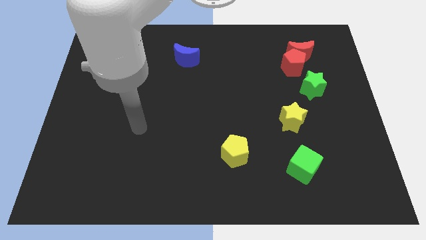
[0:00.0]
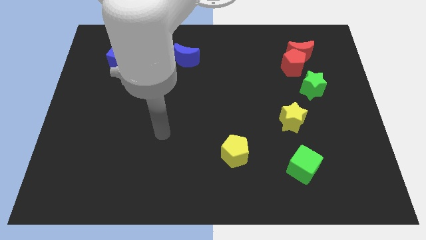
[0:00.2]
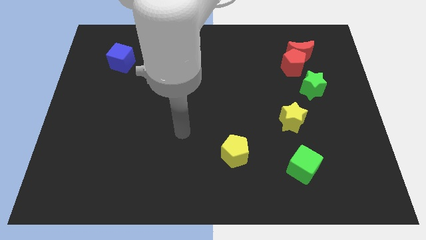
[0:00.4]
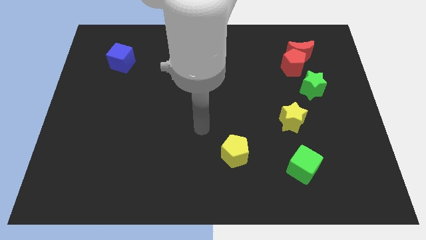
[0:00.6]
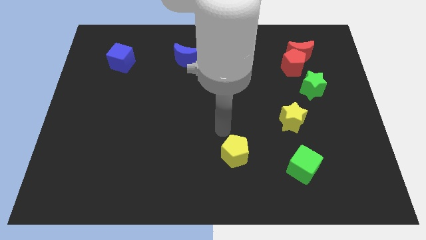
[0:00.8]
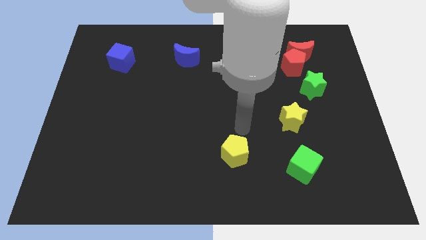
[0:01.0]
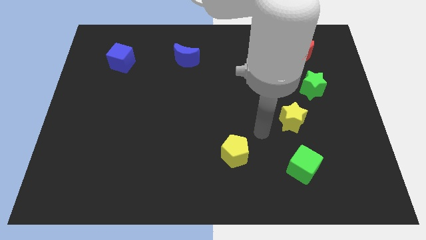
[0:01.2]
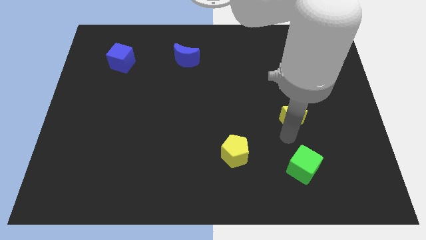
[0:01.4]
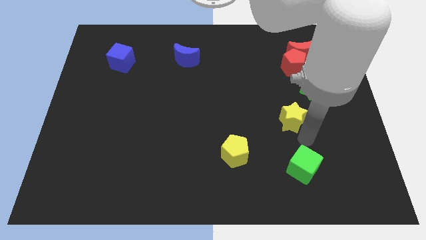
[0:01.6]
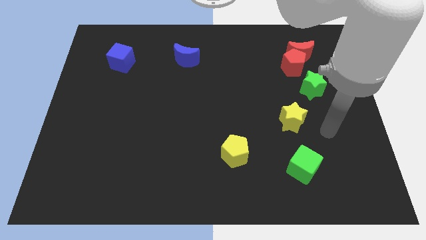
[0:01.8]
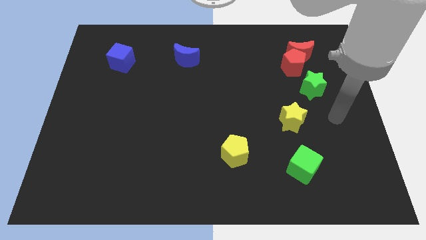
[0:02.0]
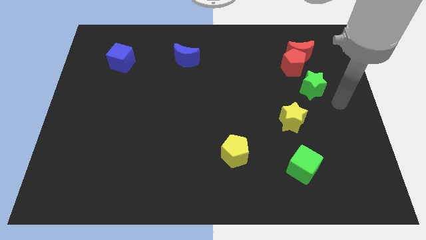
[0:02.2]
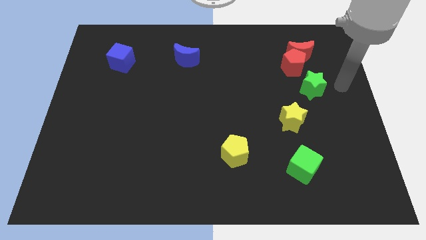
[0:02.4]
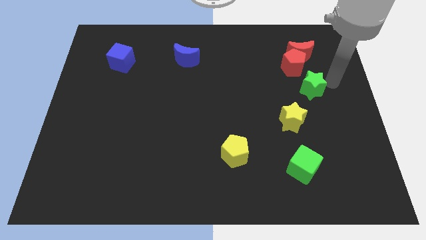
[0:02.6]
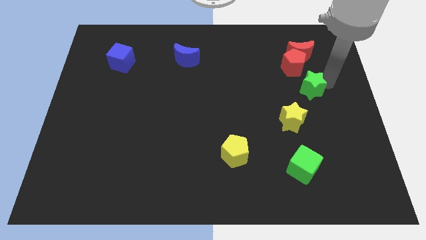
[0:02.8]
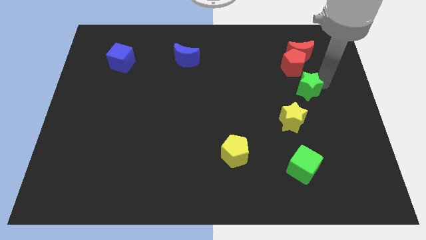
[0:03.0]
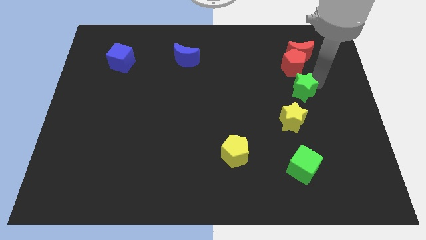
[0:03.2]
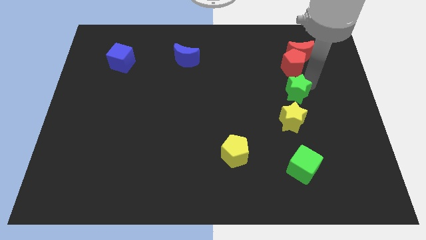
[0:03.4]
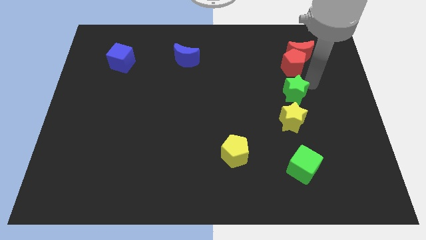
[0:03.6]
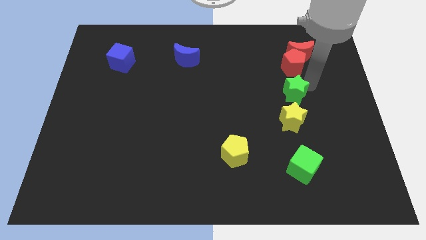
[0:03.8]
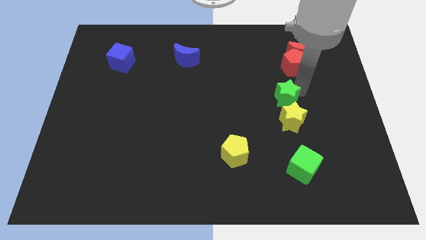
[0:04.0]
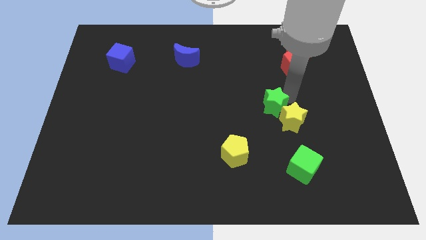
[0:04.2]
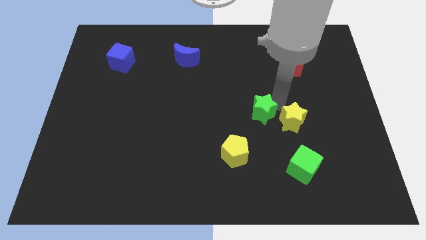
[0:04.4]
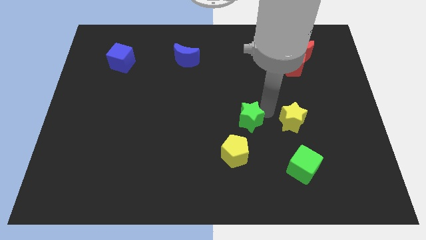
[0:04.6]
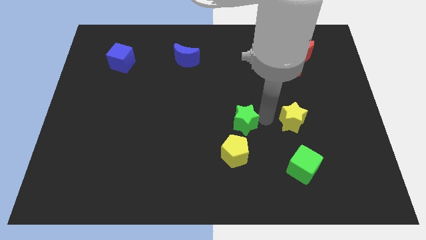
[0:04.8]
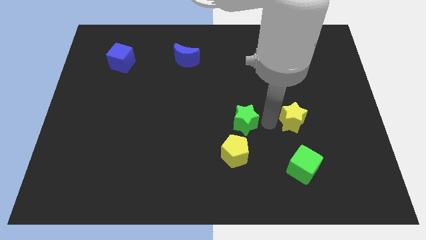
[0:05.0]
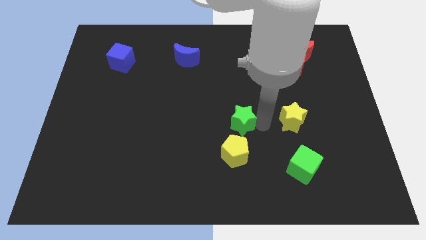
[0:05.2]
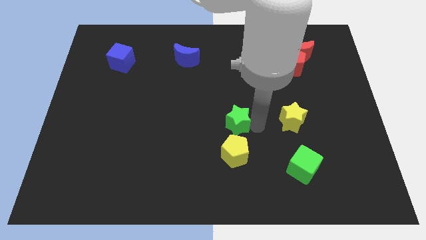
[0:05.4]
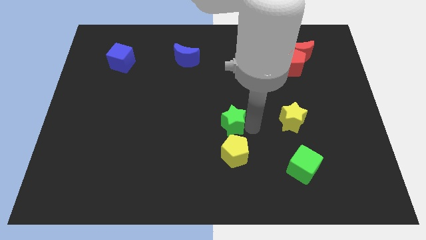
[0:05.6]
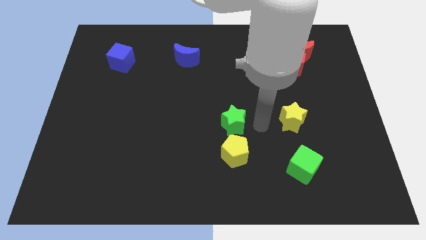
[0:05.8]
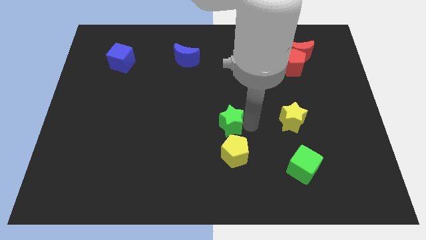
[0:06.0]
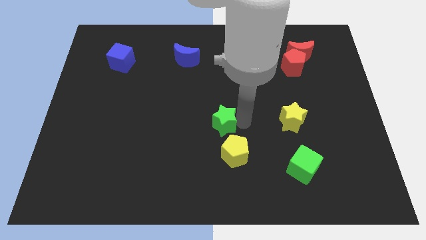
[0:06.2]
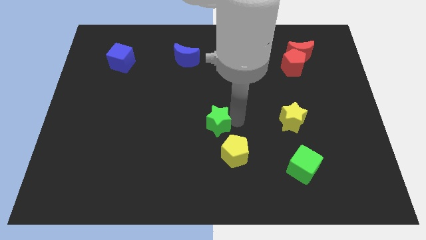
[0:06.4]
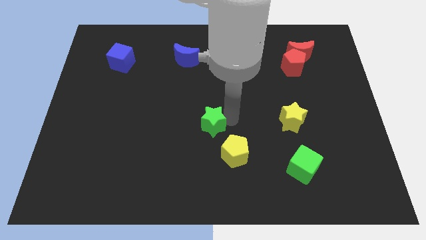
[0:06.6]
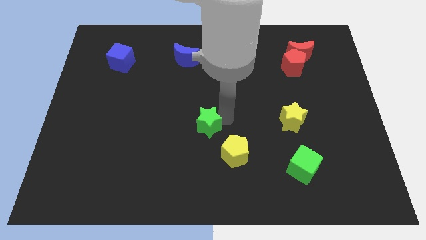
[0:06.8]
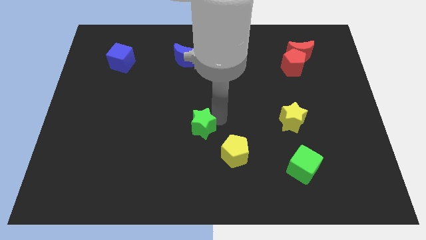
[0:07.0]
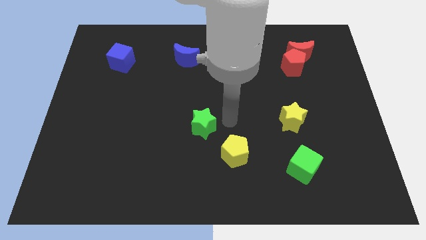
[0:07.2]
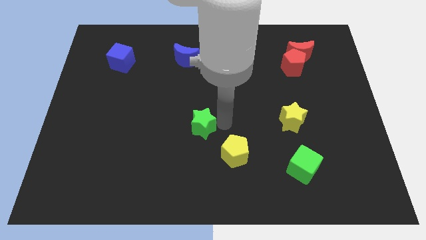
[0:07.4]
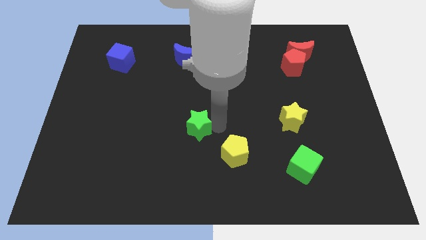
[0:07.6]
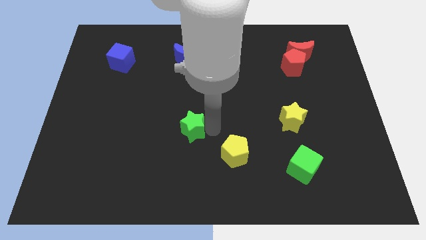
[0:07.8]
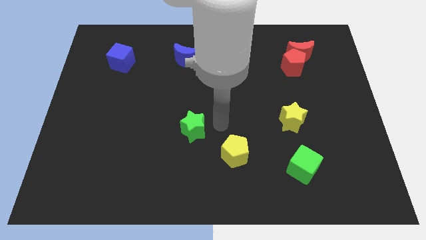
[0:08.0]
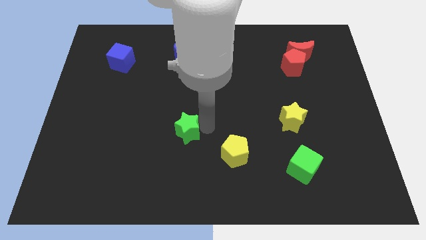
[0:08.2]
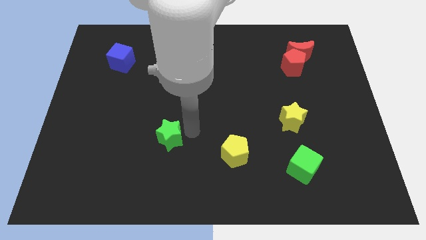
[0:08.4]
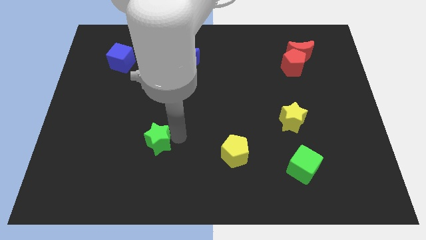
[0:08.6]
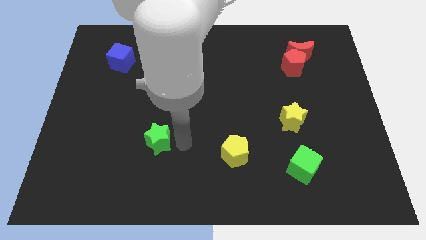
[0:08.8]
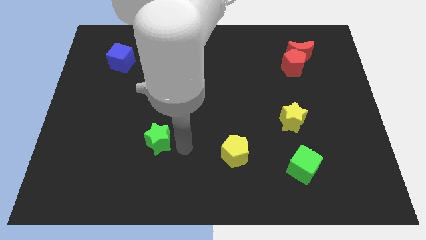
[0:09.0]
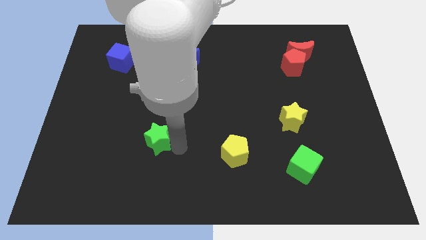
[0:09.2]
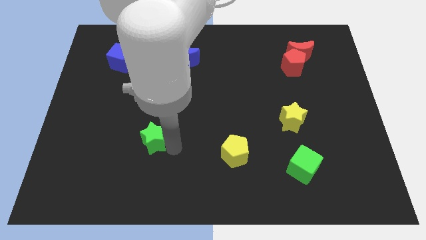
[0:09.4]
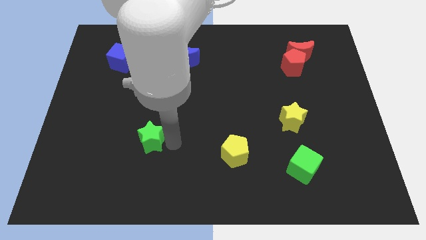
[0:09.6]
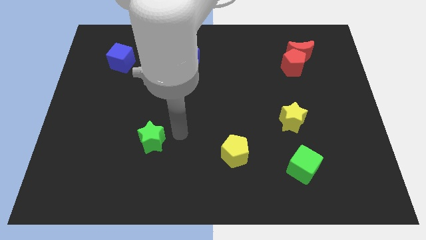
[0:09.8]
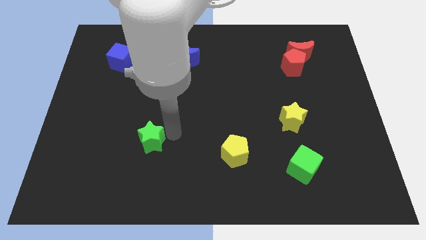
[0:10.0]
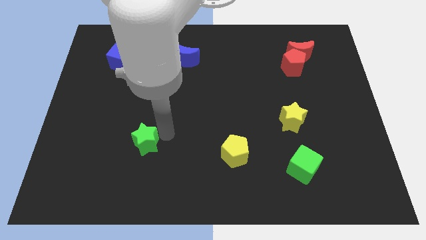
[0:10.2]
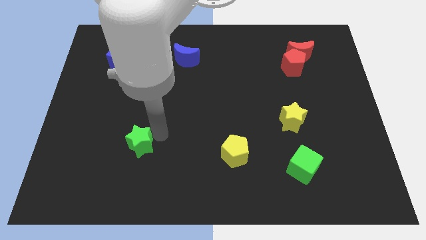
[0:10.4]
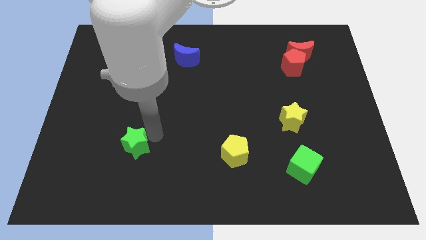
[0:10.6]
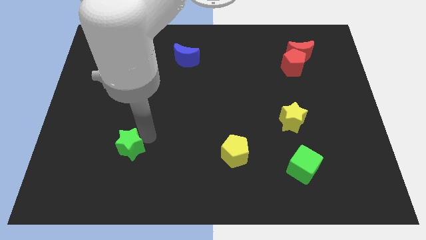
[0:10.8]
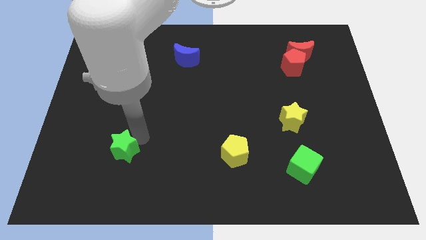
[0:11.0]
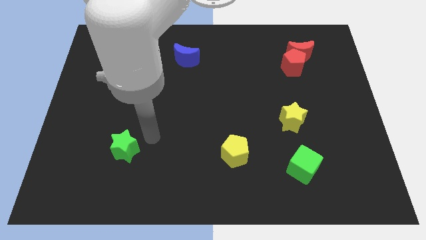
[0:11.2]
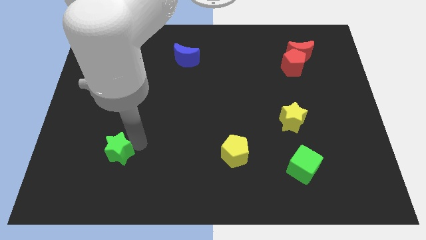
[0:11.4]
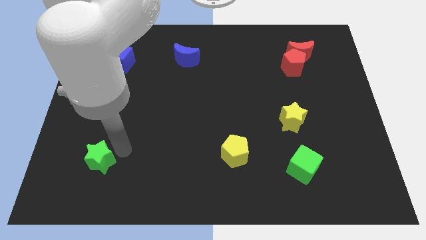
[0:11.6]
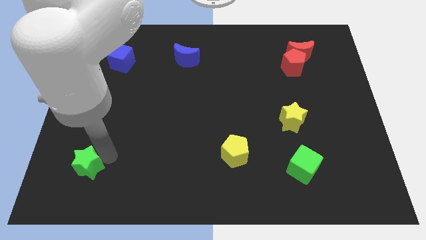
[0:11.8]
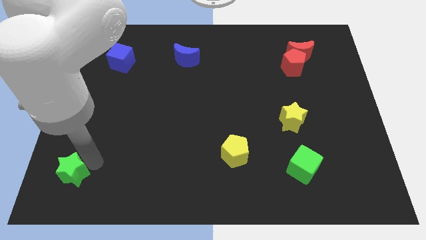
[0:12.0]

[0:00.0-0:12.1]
push the green star to the lower left corner

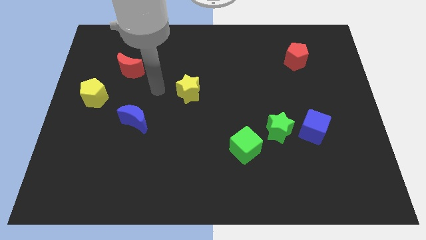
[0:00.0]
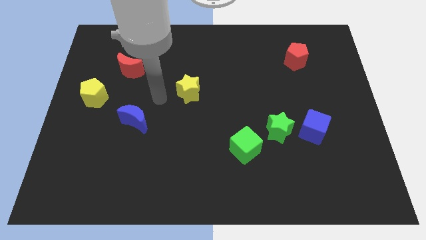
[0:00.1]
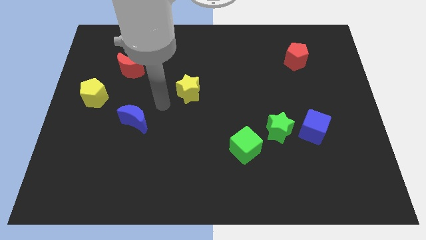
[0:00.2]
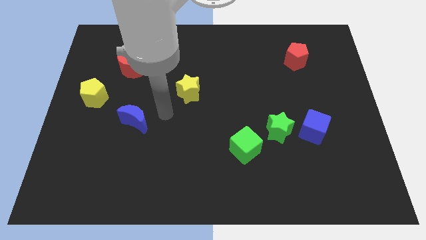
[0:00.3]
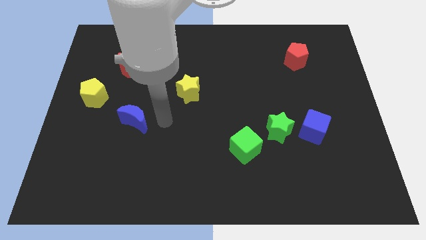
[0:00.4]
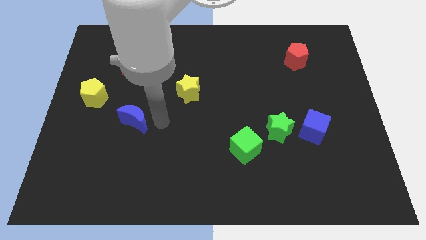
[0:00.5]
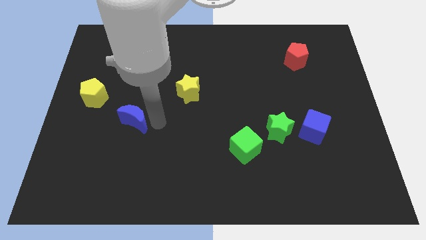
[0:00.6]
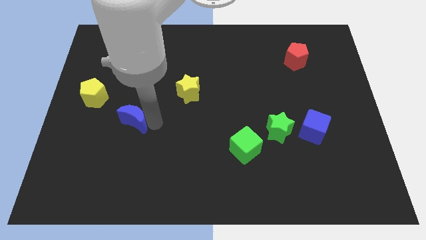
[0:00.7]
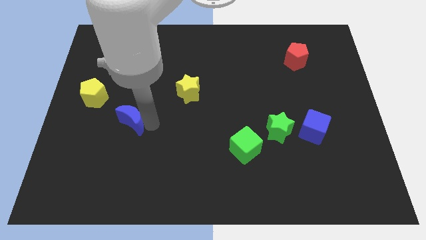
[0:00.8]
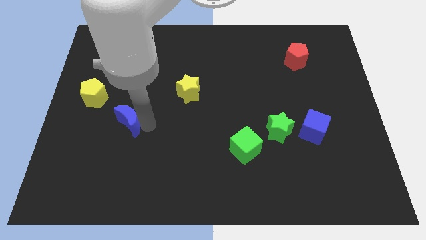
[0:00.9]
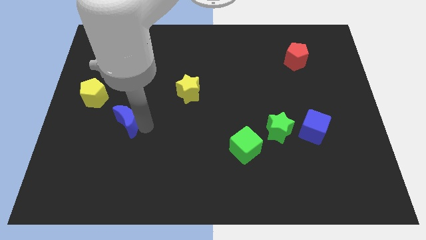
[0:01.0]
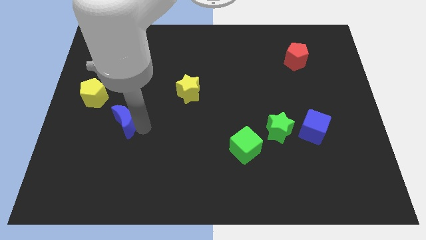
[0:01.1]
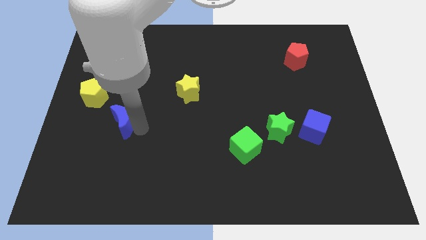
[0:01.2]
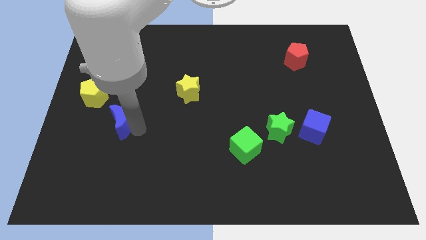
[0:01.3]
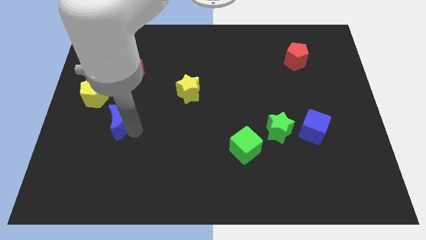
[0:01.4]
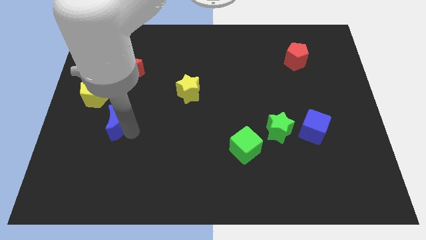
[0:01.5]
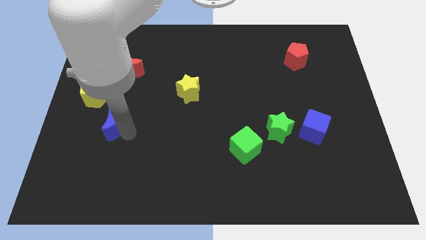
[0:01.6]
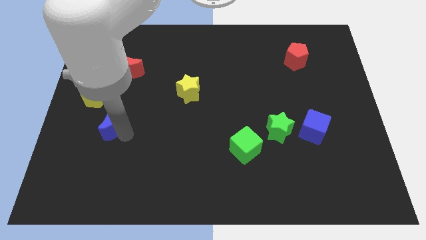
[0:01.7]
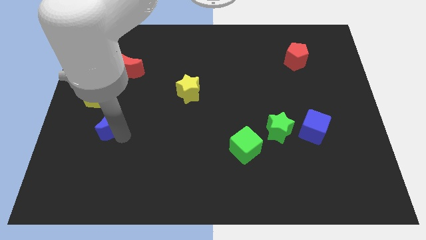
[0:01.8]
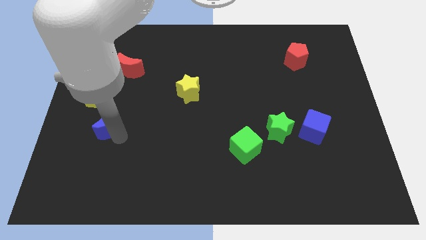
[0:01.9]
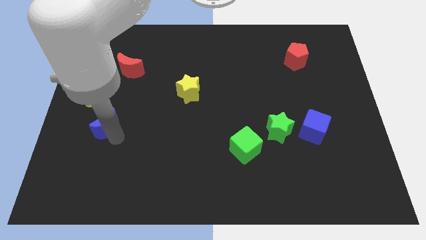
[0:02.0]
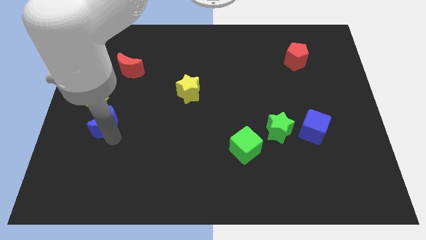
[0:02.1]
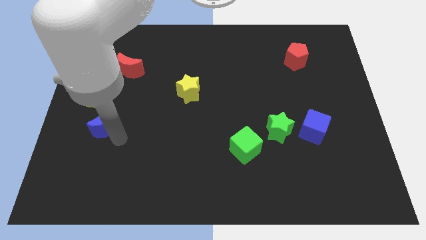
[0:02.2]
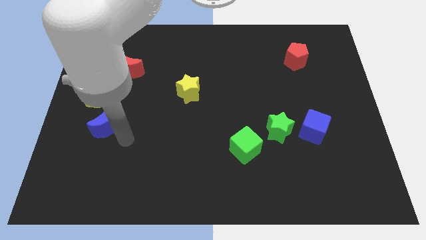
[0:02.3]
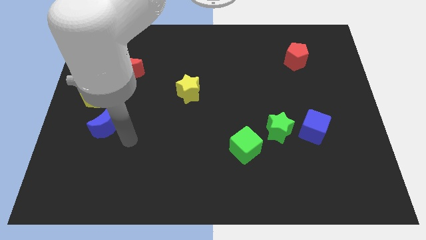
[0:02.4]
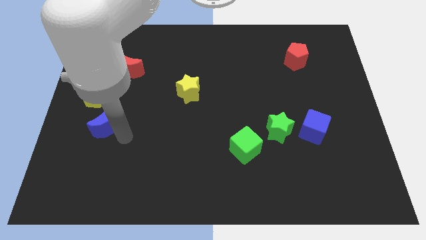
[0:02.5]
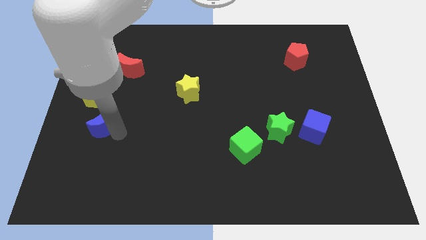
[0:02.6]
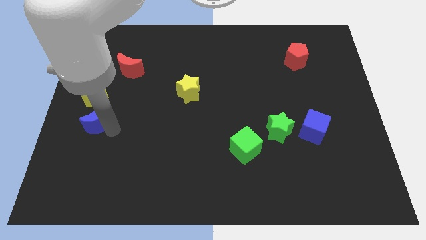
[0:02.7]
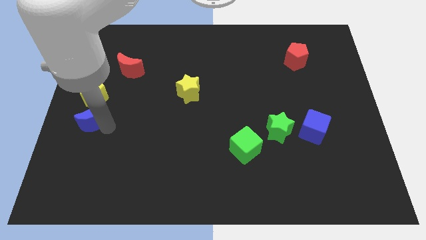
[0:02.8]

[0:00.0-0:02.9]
slide the blue moon to the left side of the board
